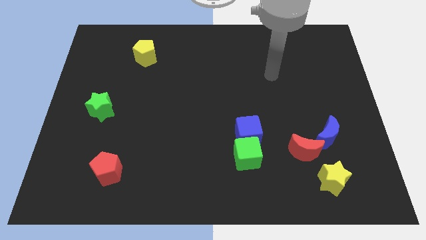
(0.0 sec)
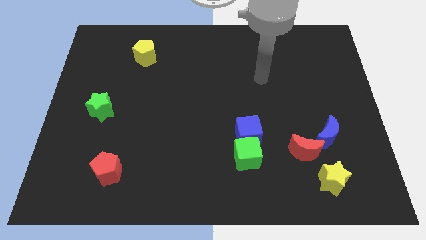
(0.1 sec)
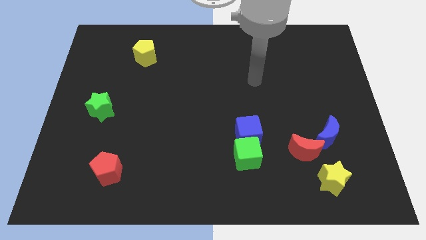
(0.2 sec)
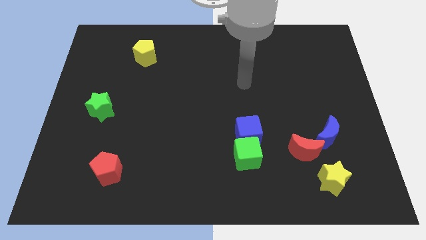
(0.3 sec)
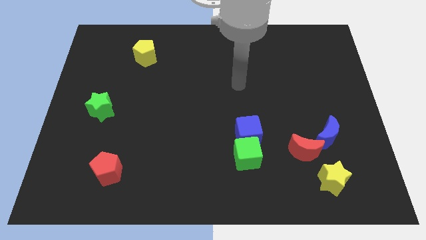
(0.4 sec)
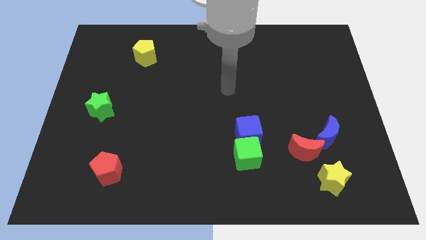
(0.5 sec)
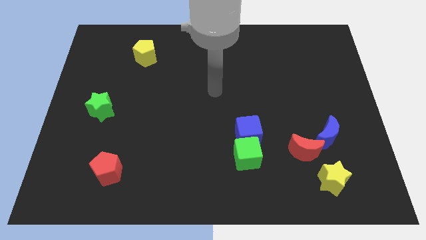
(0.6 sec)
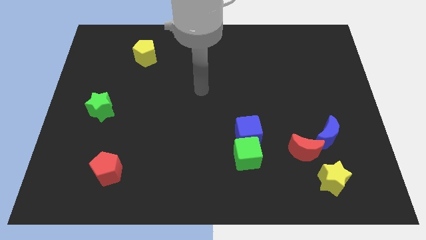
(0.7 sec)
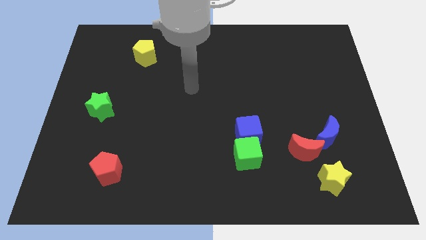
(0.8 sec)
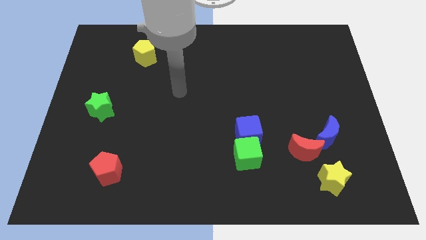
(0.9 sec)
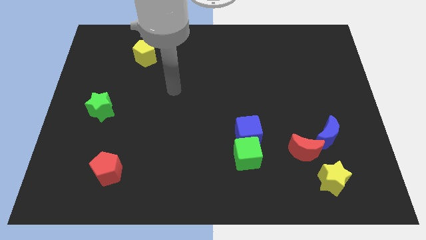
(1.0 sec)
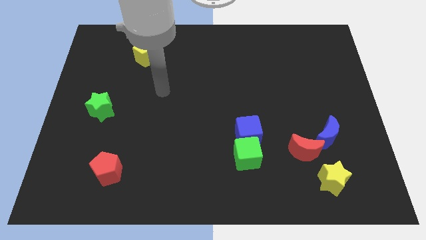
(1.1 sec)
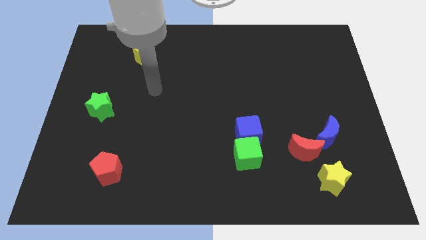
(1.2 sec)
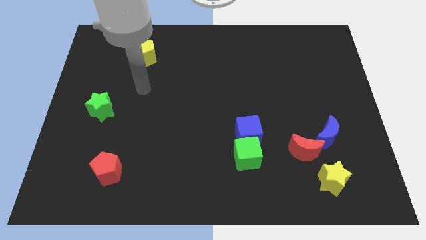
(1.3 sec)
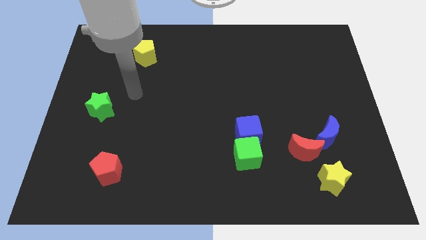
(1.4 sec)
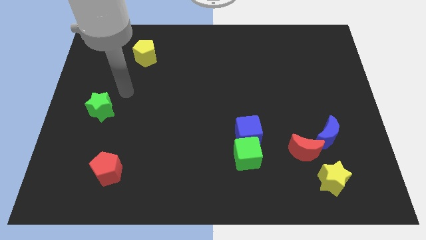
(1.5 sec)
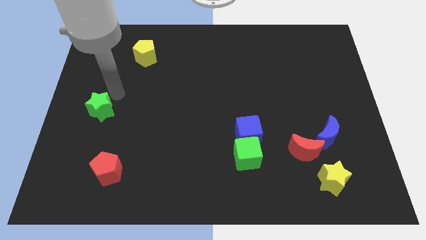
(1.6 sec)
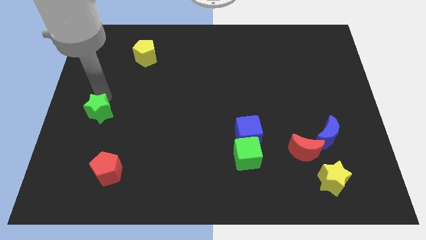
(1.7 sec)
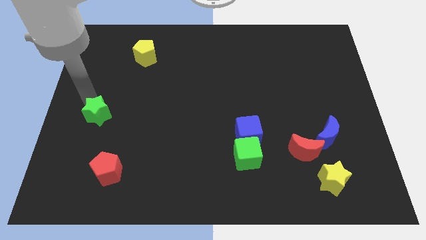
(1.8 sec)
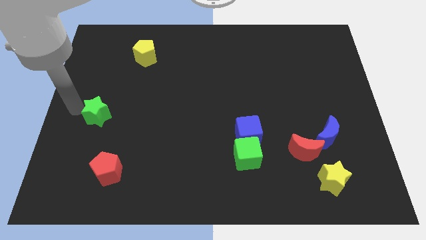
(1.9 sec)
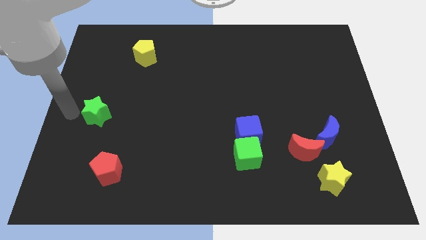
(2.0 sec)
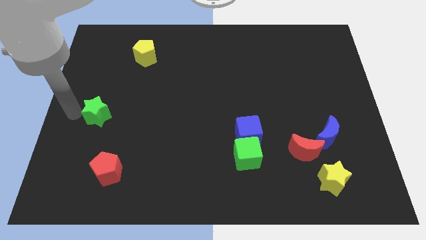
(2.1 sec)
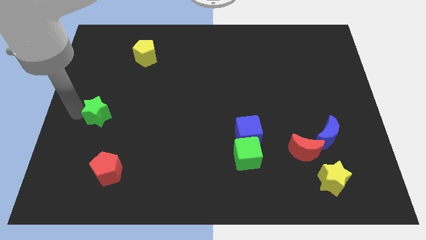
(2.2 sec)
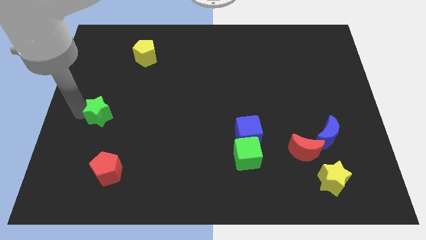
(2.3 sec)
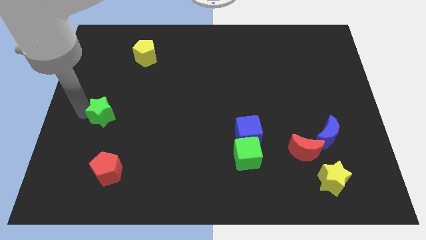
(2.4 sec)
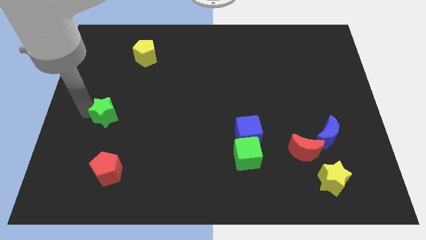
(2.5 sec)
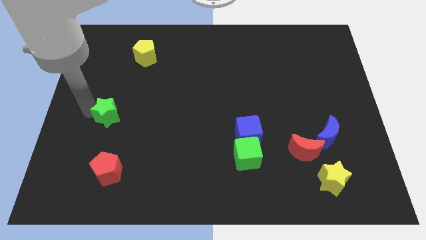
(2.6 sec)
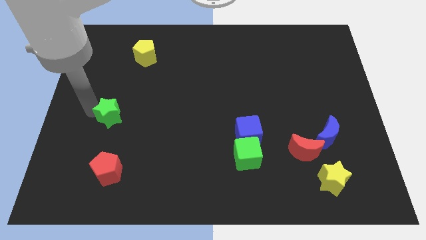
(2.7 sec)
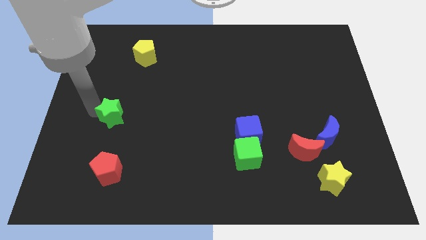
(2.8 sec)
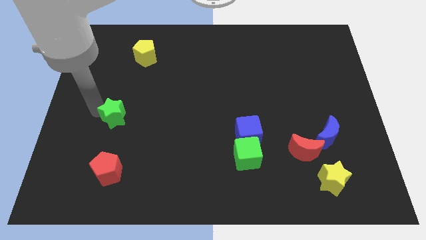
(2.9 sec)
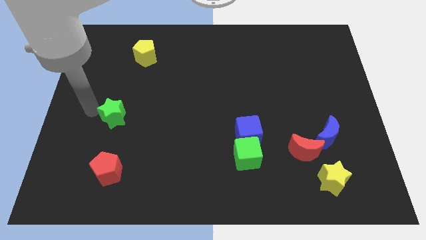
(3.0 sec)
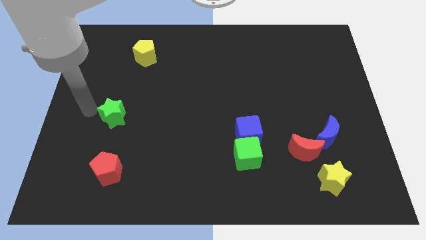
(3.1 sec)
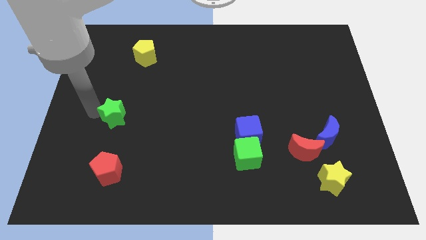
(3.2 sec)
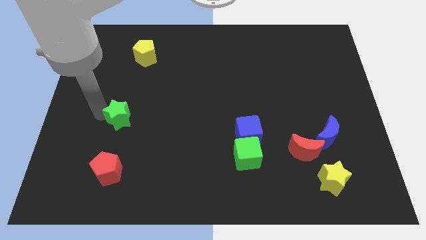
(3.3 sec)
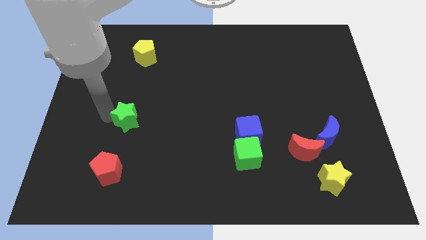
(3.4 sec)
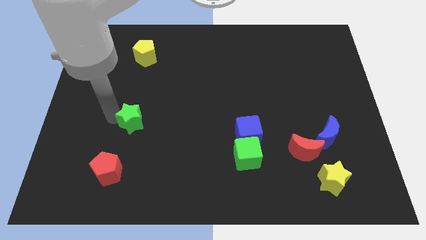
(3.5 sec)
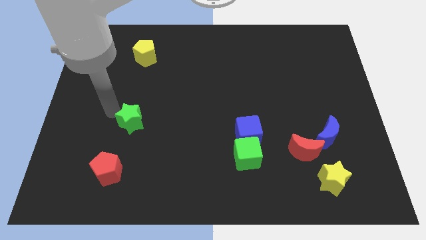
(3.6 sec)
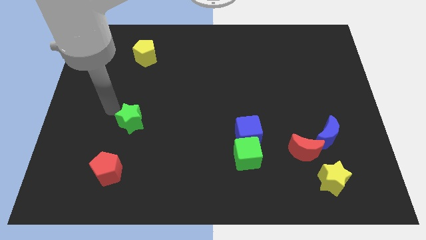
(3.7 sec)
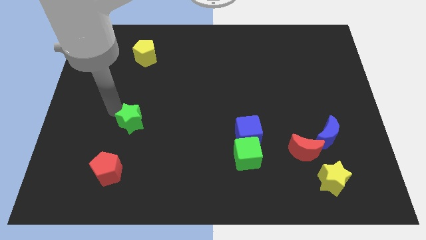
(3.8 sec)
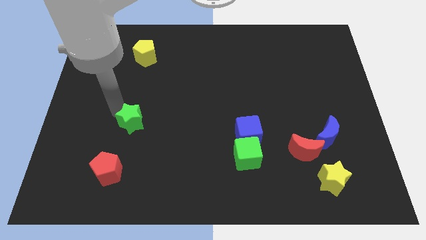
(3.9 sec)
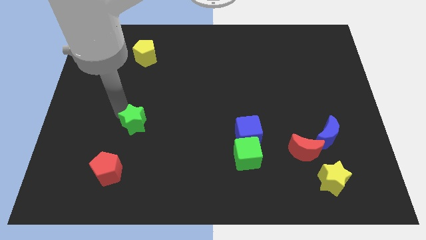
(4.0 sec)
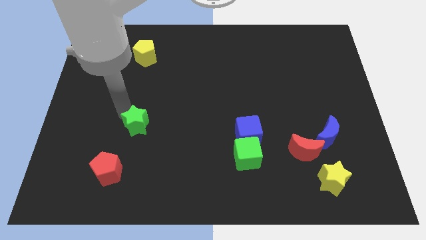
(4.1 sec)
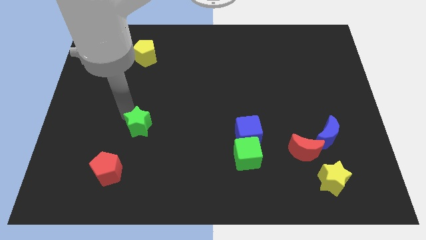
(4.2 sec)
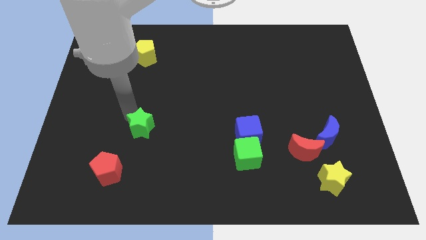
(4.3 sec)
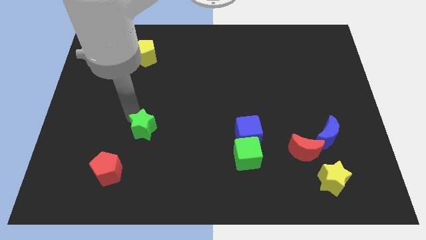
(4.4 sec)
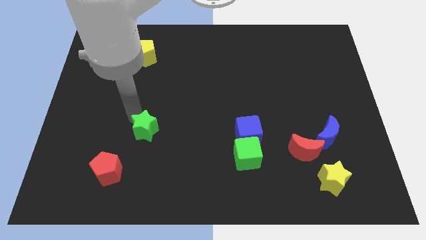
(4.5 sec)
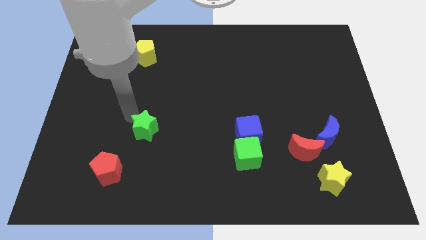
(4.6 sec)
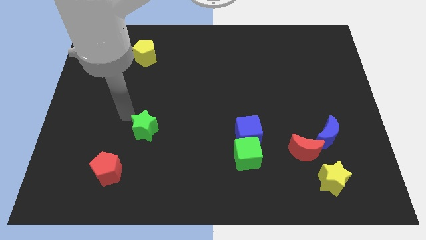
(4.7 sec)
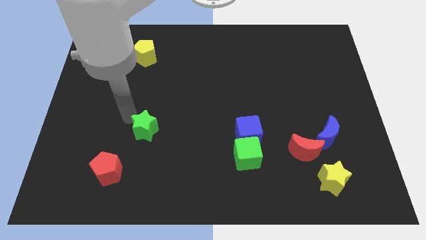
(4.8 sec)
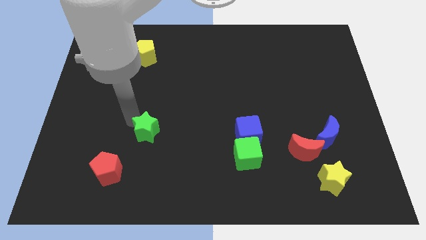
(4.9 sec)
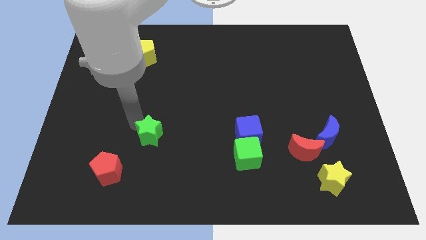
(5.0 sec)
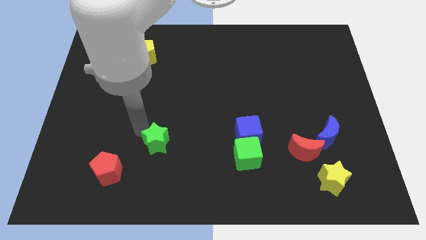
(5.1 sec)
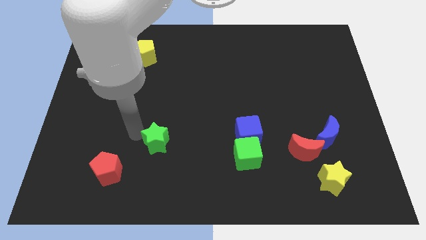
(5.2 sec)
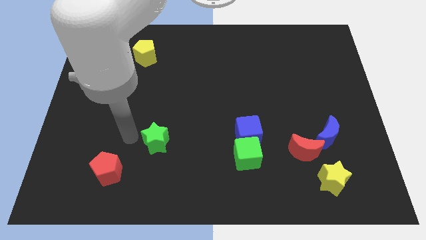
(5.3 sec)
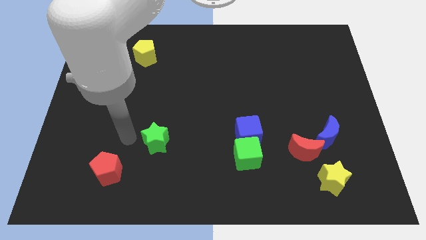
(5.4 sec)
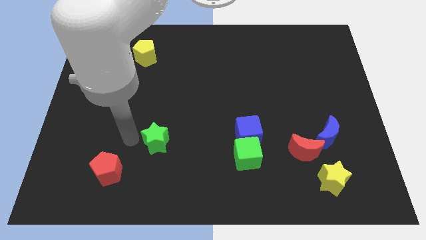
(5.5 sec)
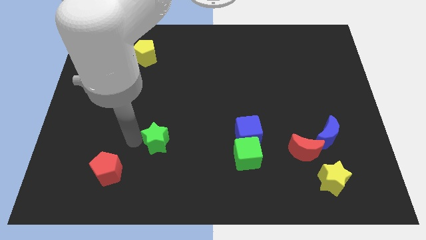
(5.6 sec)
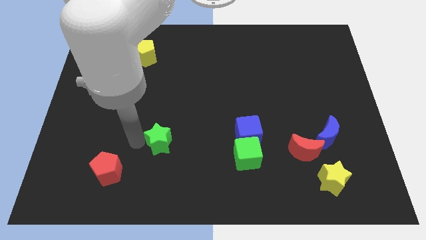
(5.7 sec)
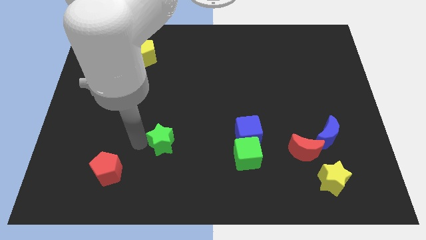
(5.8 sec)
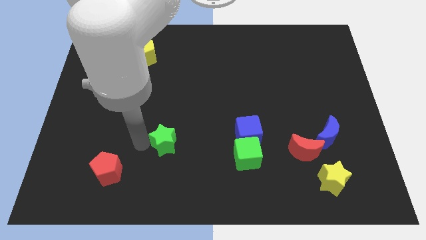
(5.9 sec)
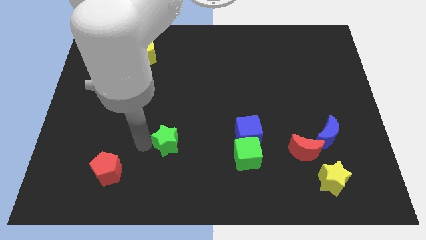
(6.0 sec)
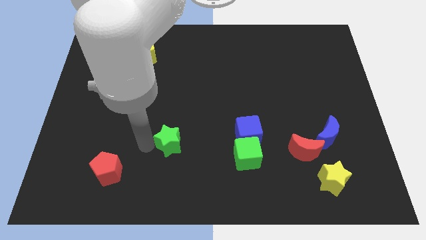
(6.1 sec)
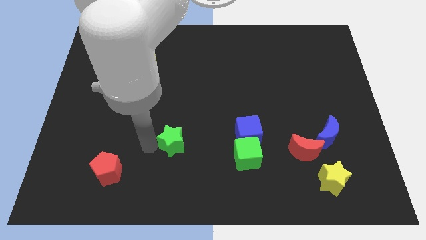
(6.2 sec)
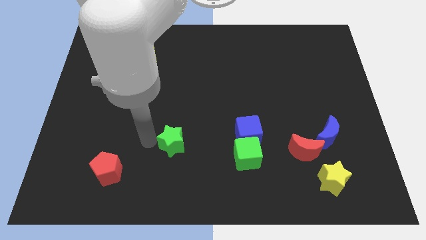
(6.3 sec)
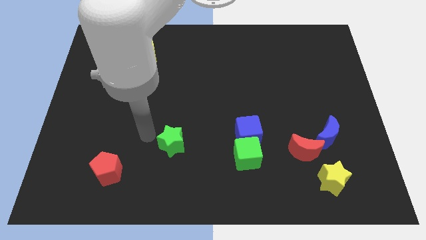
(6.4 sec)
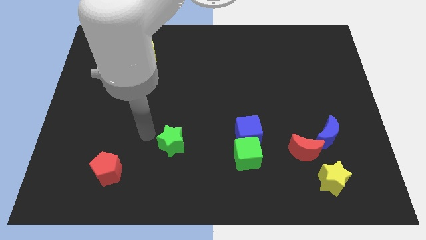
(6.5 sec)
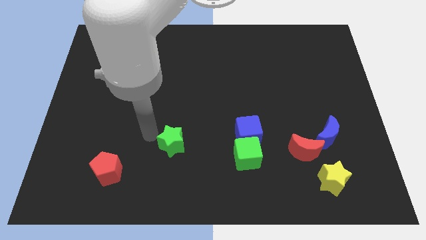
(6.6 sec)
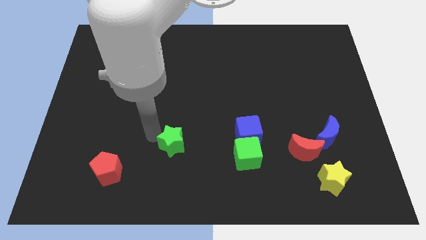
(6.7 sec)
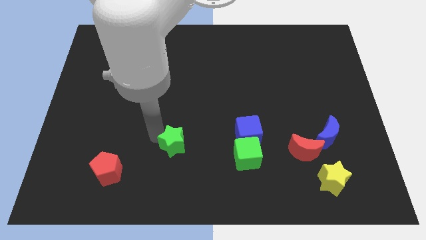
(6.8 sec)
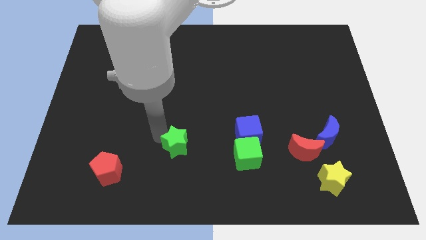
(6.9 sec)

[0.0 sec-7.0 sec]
put the green star just left of the green cube

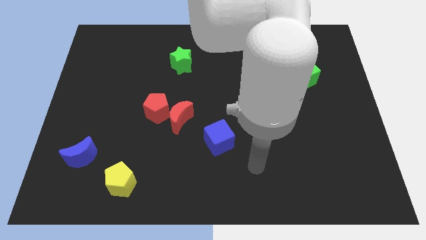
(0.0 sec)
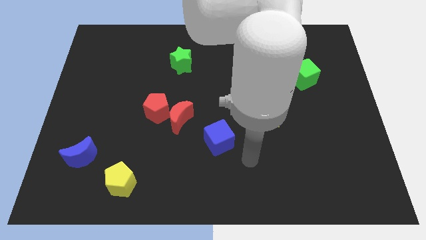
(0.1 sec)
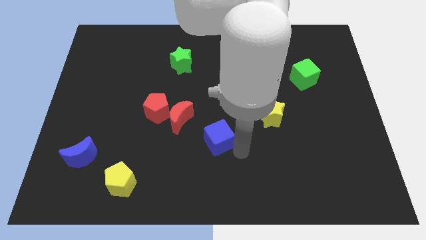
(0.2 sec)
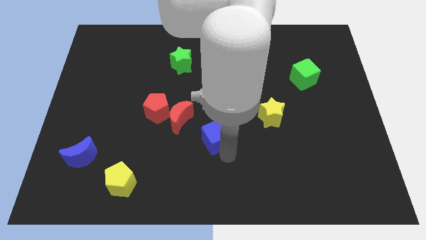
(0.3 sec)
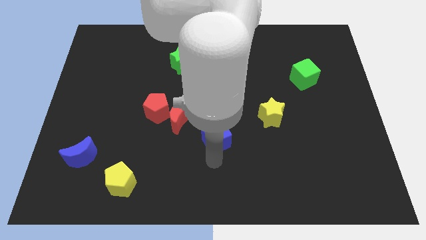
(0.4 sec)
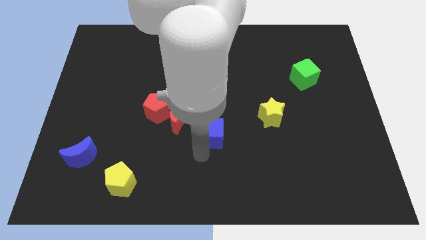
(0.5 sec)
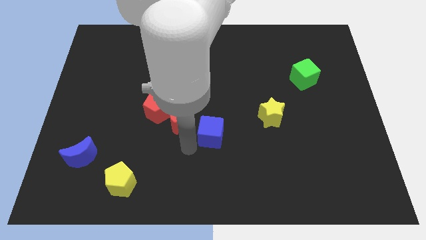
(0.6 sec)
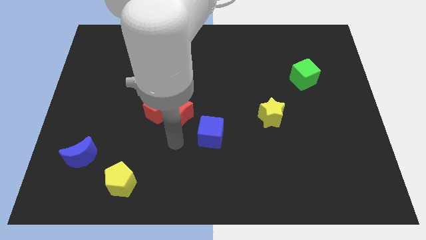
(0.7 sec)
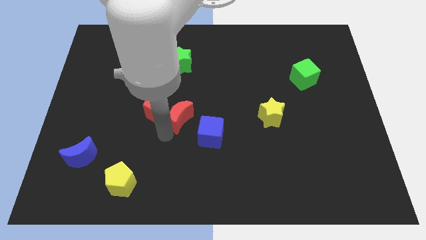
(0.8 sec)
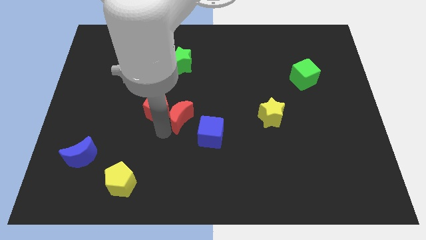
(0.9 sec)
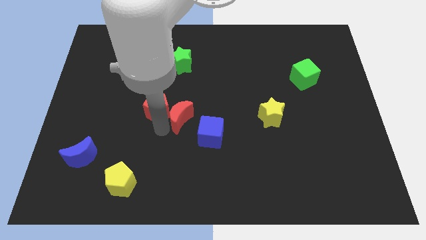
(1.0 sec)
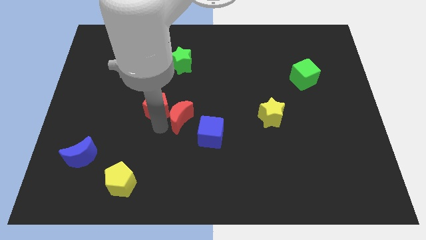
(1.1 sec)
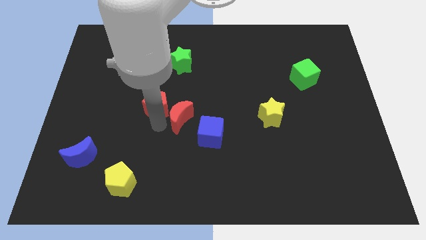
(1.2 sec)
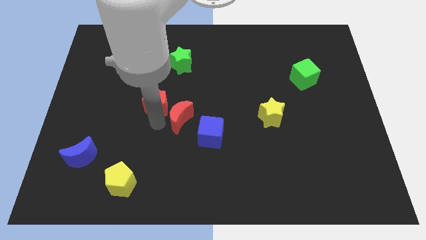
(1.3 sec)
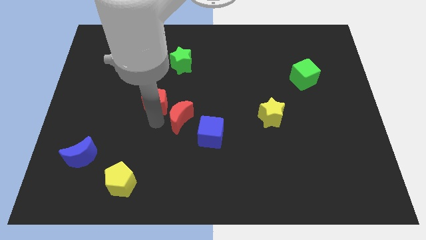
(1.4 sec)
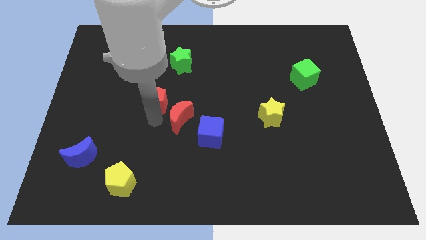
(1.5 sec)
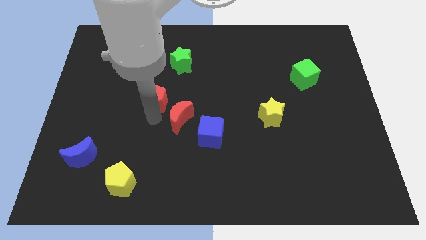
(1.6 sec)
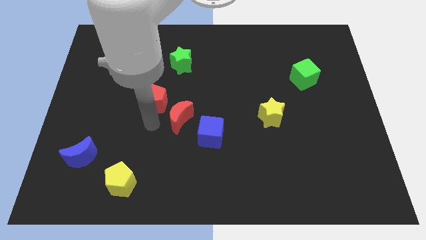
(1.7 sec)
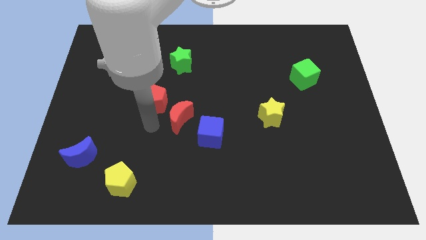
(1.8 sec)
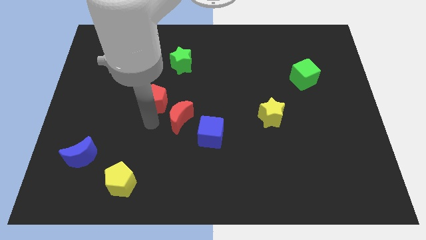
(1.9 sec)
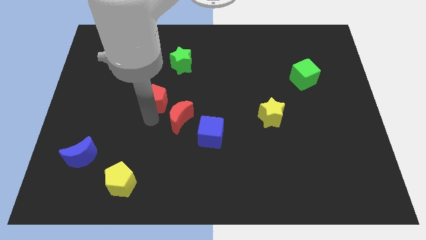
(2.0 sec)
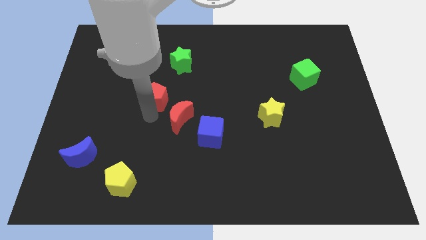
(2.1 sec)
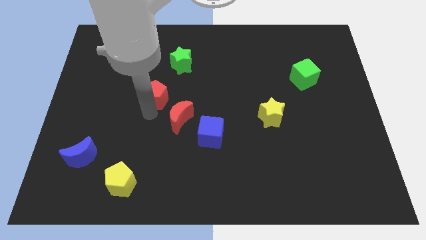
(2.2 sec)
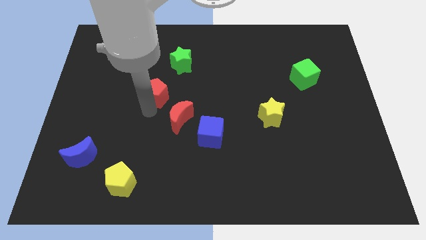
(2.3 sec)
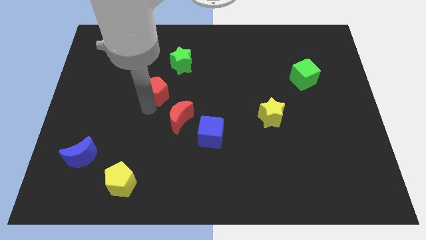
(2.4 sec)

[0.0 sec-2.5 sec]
move the red pentagon to the bottom left of the green star
